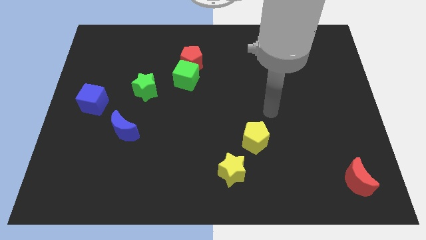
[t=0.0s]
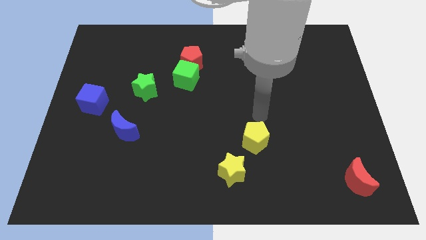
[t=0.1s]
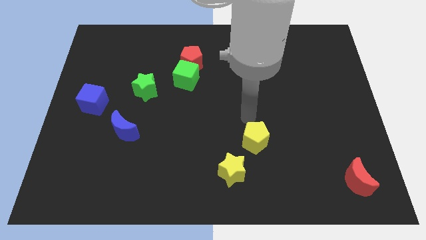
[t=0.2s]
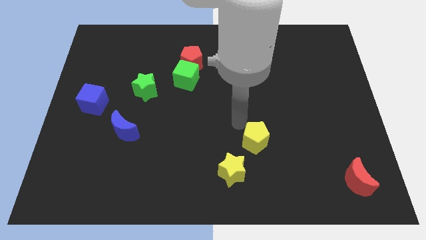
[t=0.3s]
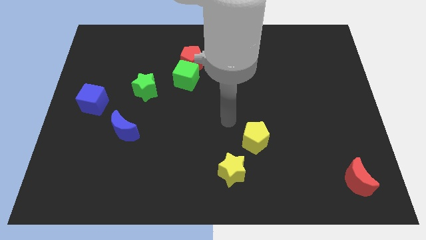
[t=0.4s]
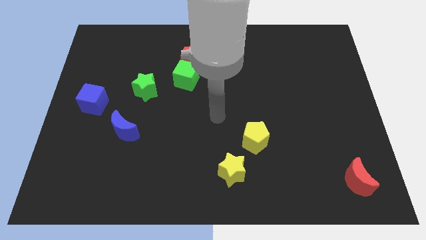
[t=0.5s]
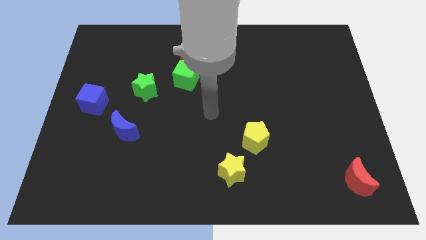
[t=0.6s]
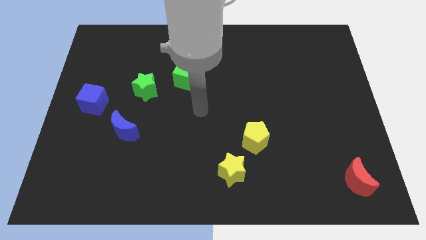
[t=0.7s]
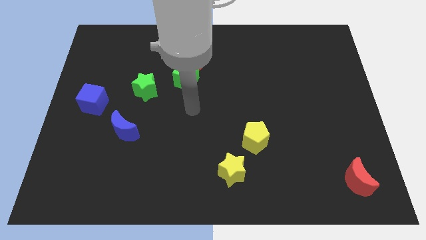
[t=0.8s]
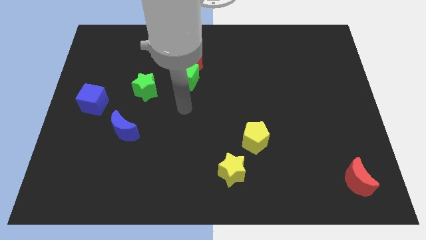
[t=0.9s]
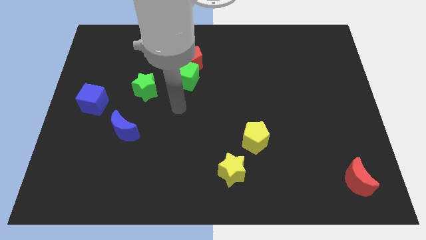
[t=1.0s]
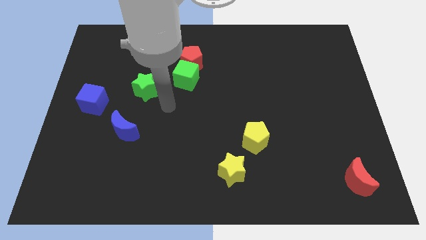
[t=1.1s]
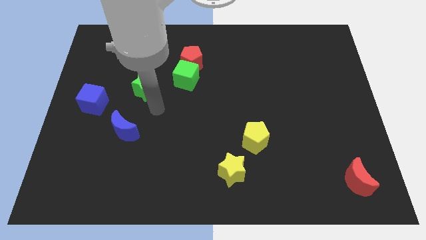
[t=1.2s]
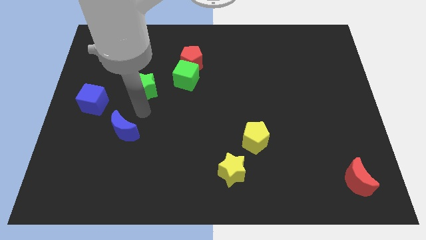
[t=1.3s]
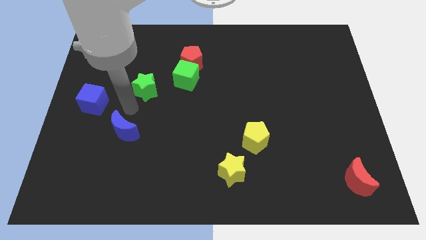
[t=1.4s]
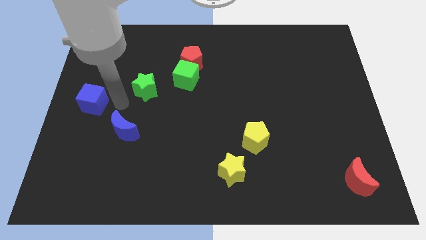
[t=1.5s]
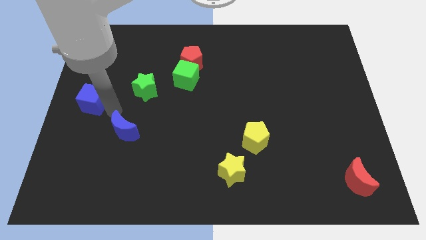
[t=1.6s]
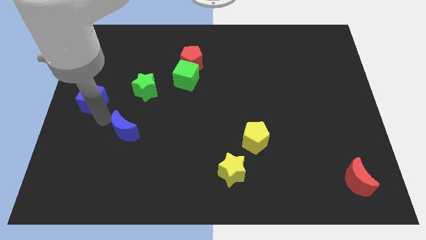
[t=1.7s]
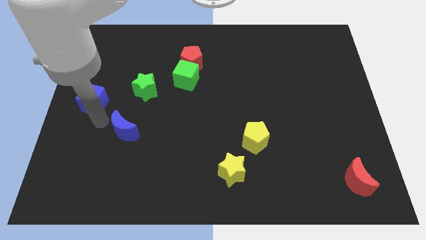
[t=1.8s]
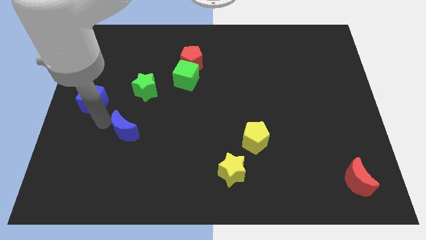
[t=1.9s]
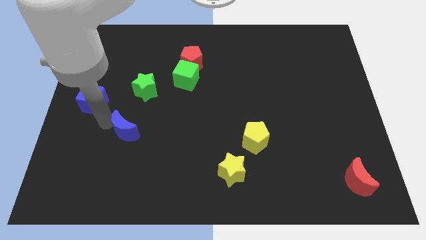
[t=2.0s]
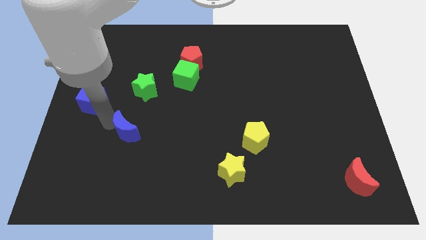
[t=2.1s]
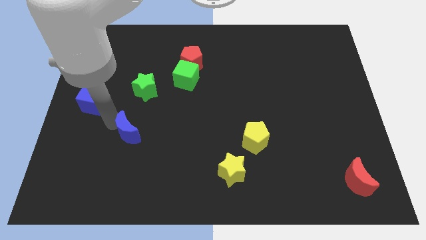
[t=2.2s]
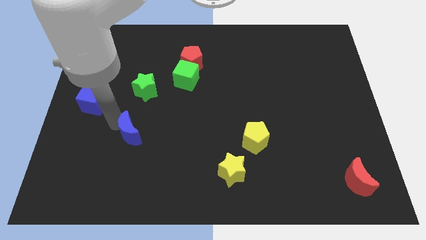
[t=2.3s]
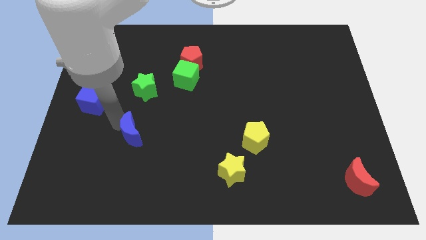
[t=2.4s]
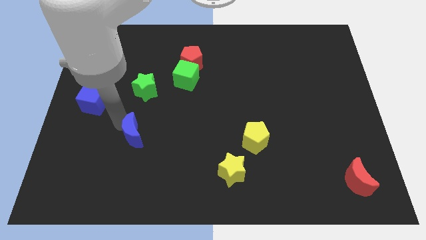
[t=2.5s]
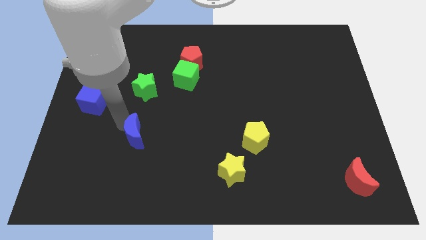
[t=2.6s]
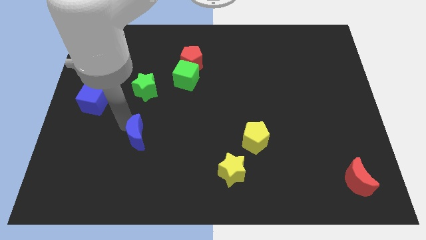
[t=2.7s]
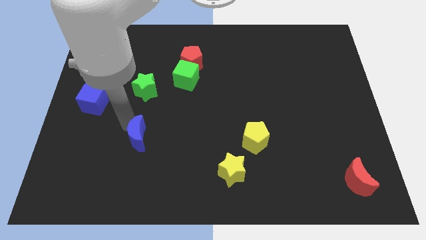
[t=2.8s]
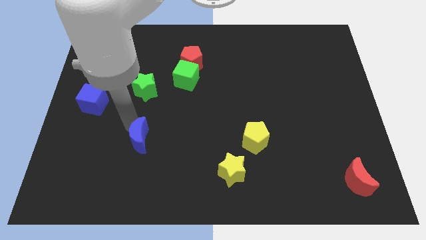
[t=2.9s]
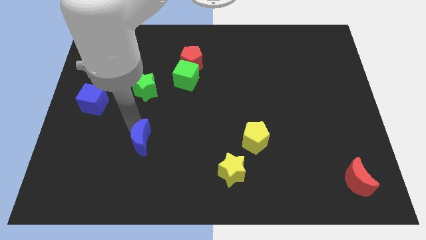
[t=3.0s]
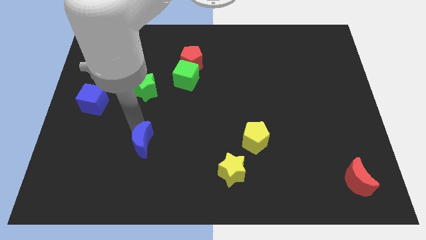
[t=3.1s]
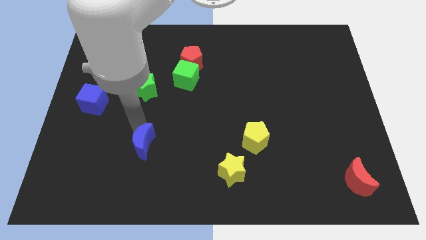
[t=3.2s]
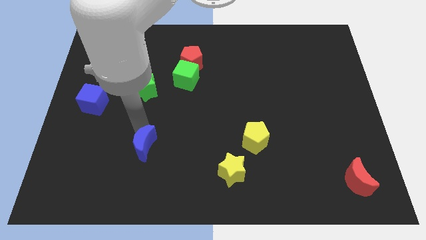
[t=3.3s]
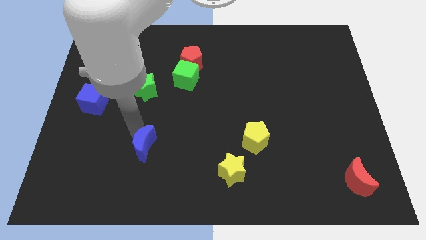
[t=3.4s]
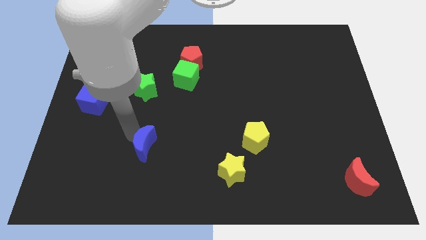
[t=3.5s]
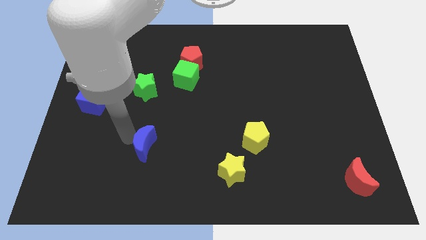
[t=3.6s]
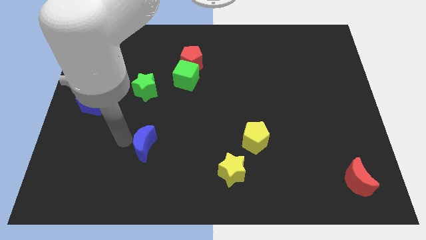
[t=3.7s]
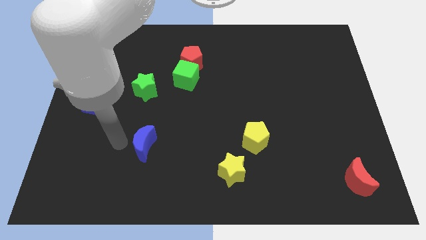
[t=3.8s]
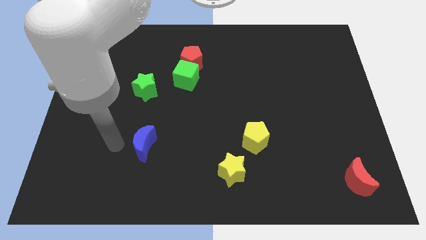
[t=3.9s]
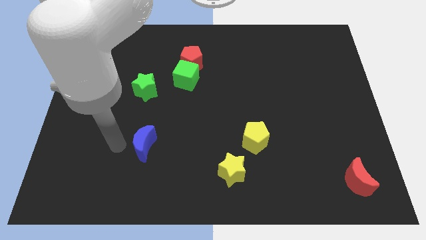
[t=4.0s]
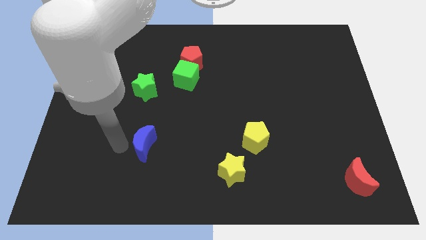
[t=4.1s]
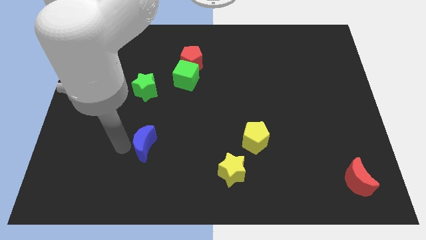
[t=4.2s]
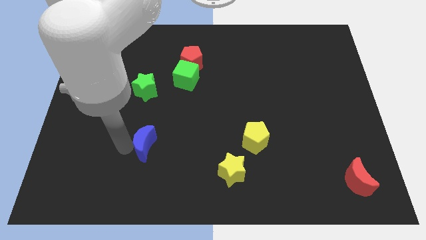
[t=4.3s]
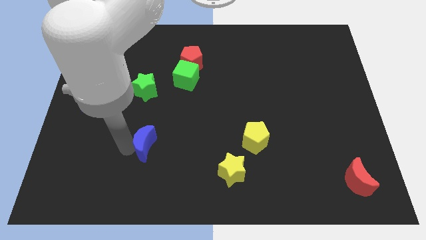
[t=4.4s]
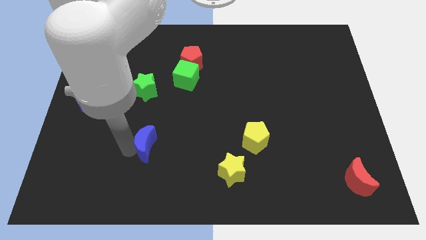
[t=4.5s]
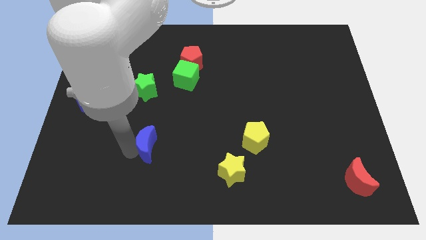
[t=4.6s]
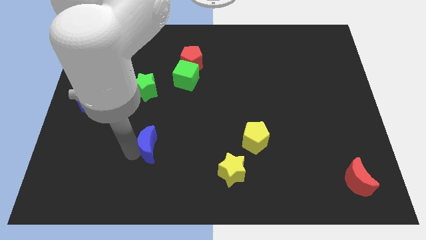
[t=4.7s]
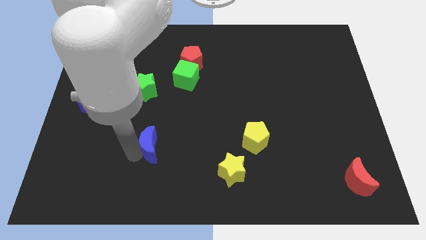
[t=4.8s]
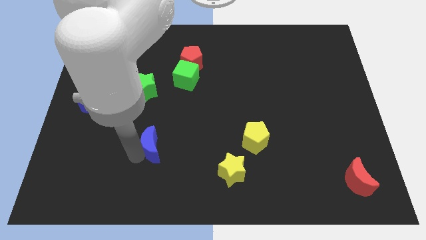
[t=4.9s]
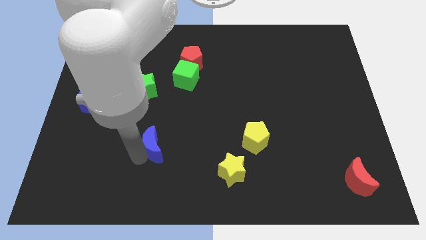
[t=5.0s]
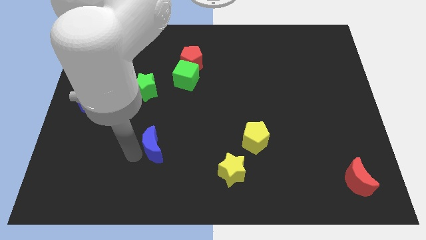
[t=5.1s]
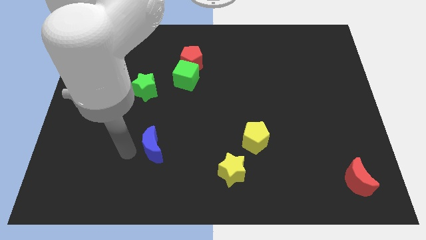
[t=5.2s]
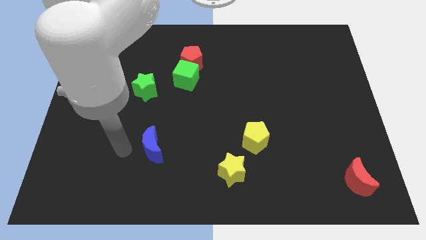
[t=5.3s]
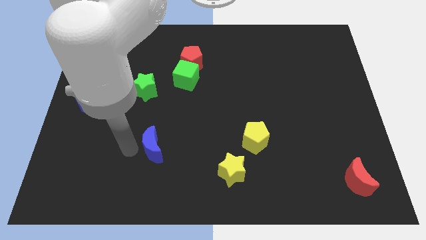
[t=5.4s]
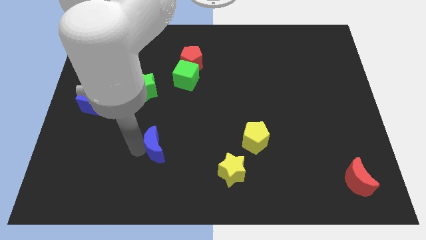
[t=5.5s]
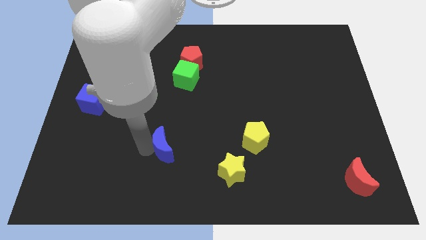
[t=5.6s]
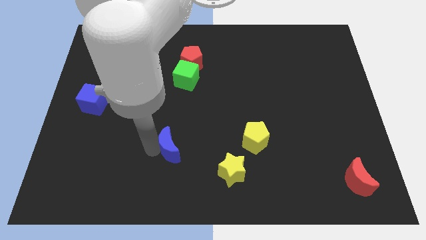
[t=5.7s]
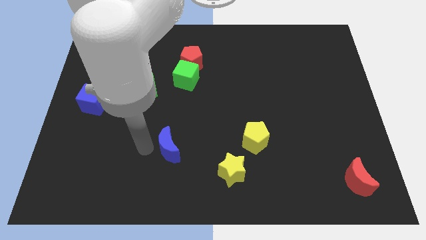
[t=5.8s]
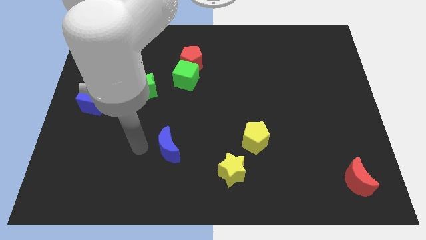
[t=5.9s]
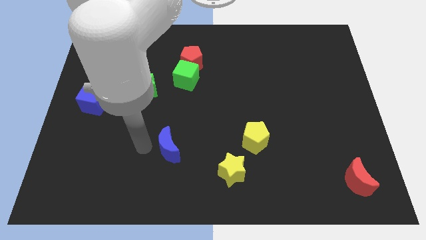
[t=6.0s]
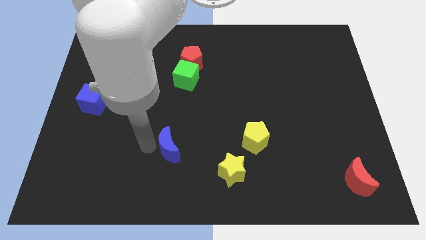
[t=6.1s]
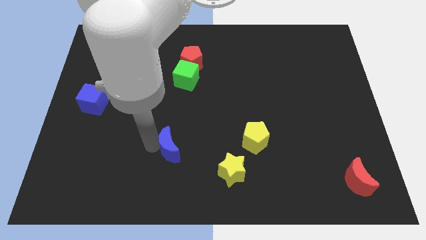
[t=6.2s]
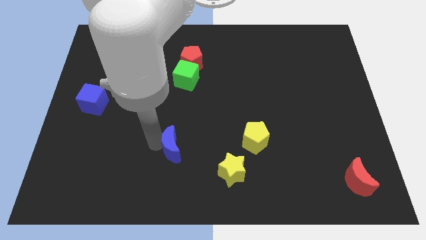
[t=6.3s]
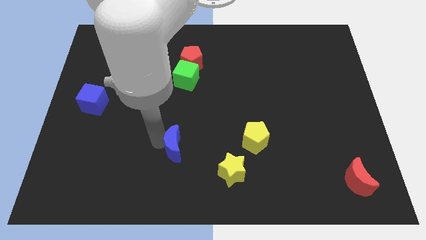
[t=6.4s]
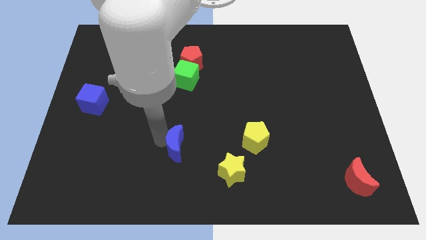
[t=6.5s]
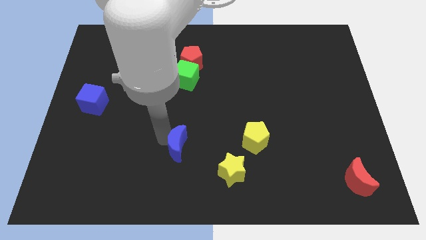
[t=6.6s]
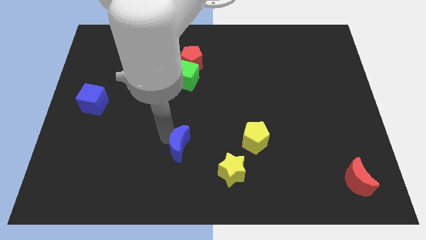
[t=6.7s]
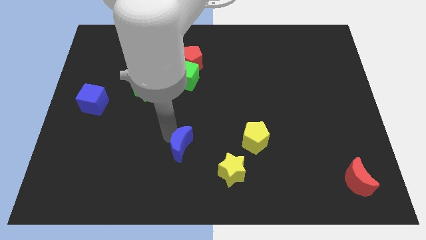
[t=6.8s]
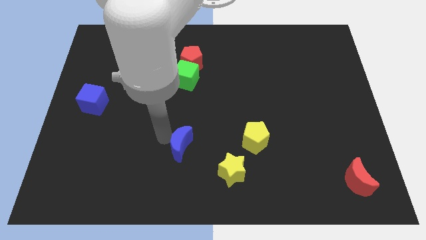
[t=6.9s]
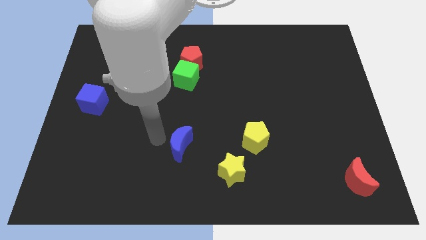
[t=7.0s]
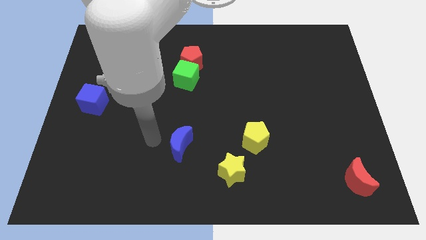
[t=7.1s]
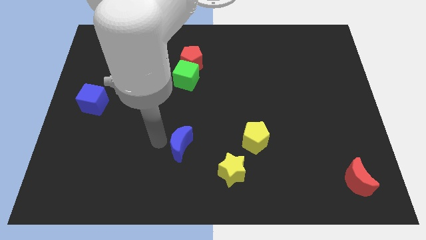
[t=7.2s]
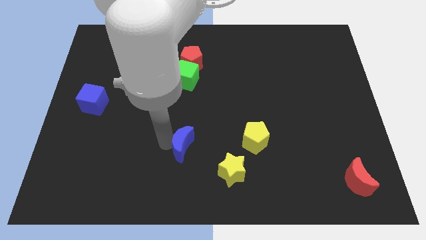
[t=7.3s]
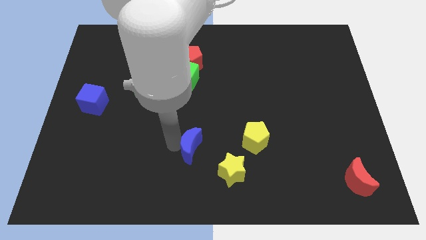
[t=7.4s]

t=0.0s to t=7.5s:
move the blue moon to the top left side of the yellow star
